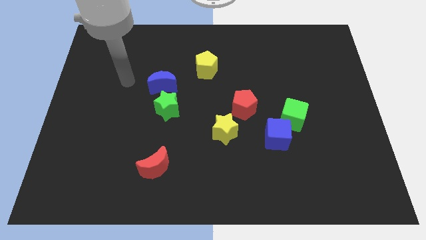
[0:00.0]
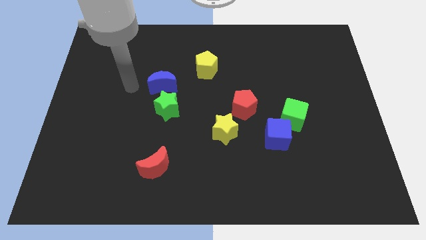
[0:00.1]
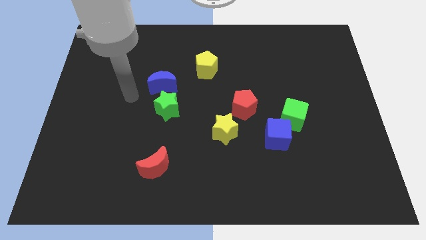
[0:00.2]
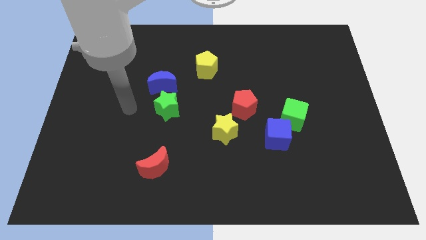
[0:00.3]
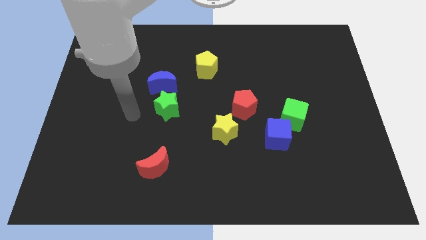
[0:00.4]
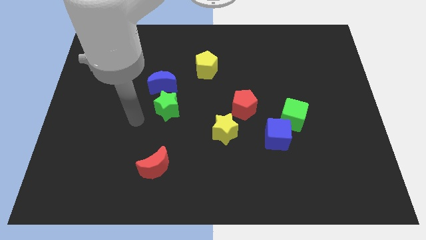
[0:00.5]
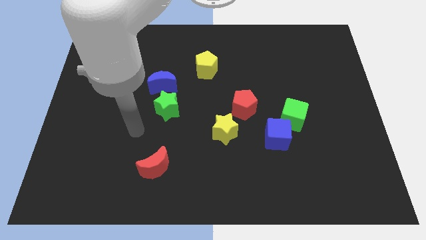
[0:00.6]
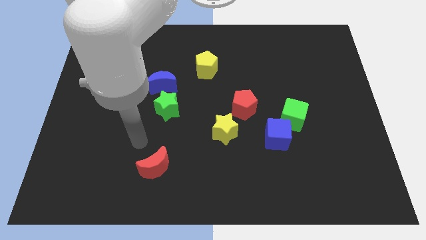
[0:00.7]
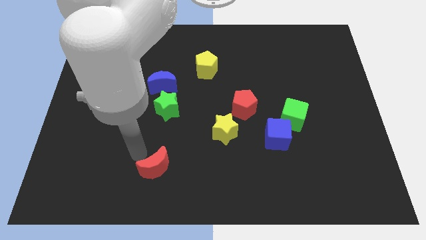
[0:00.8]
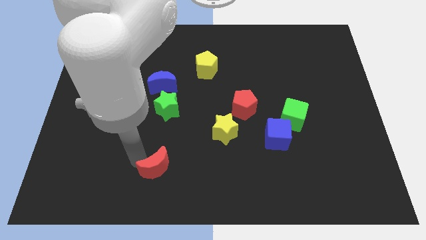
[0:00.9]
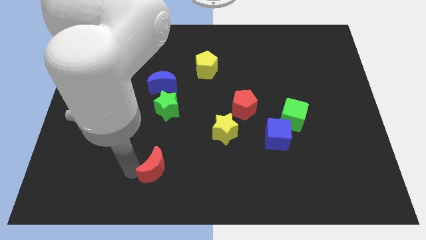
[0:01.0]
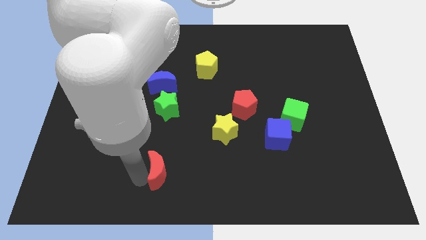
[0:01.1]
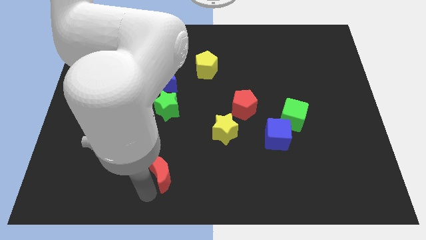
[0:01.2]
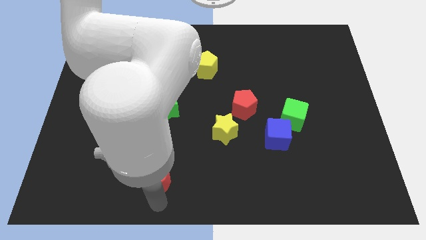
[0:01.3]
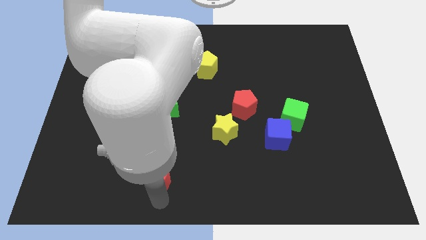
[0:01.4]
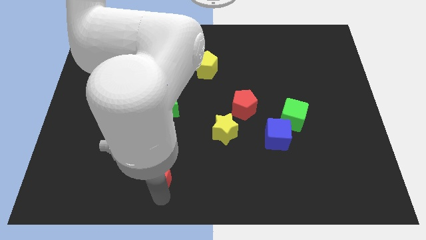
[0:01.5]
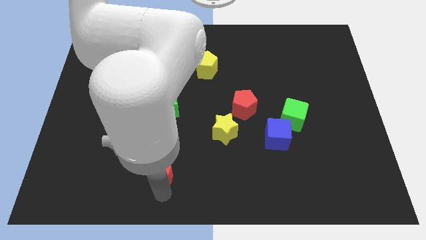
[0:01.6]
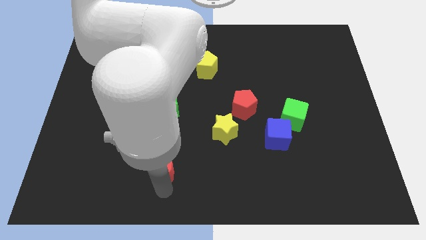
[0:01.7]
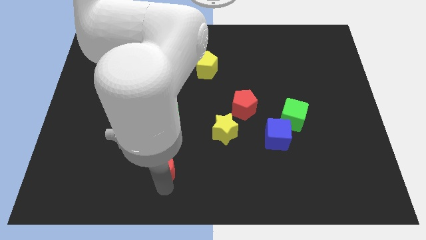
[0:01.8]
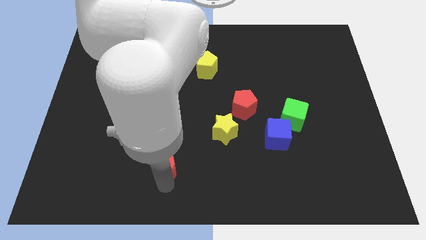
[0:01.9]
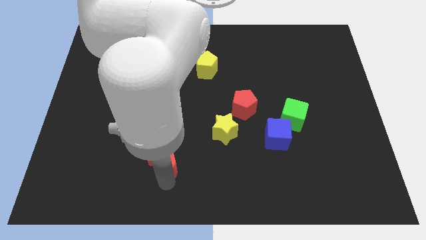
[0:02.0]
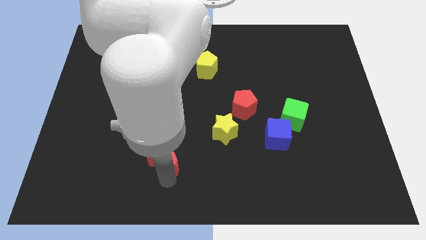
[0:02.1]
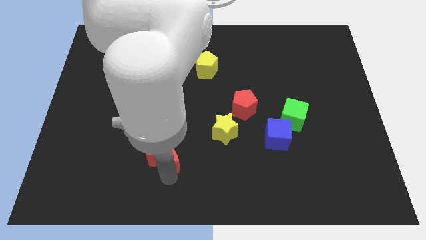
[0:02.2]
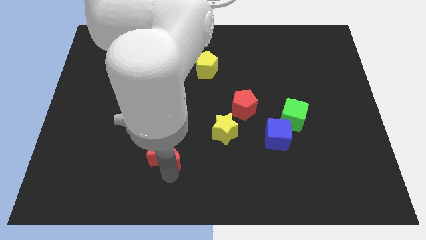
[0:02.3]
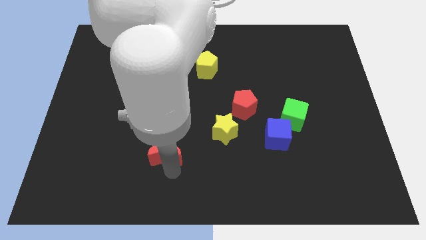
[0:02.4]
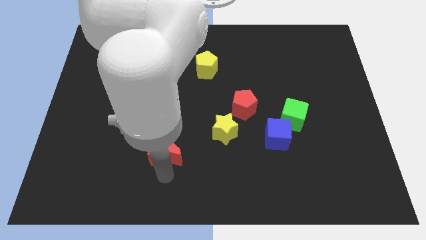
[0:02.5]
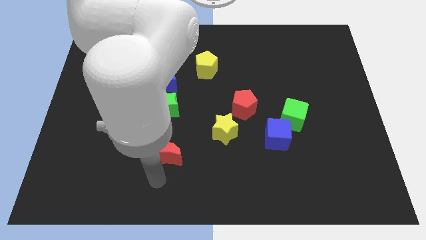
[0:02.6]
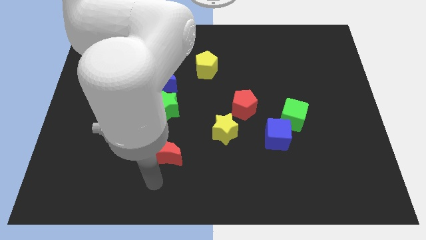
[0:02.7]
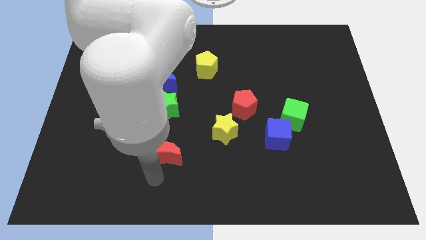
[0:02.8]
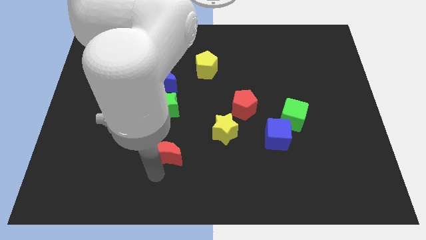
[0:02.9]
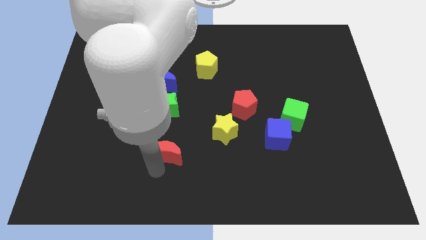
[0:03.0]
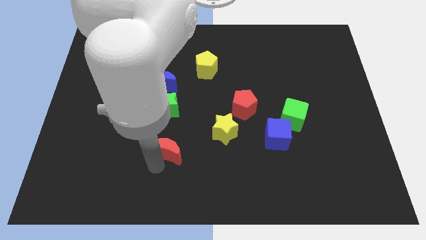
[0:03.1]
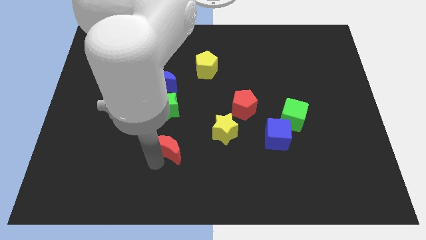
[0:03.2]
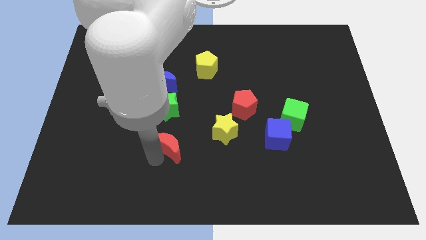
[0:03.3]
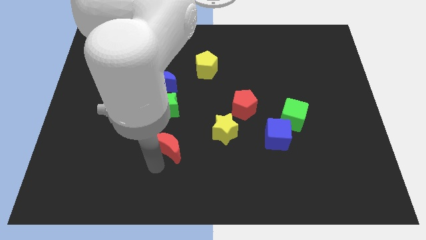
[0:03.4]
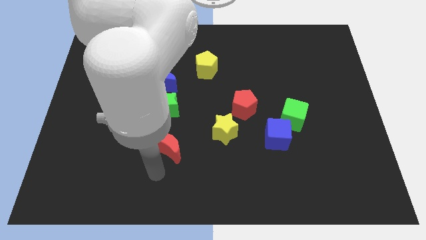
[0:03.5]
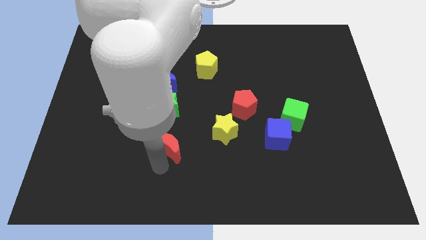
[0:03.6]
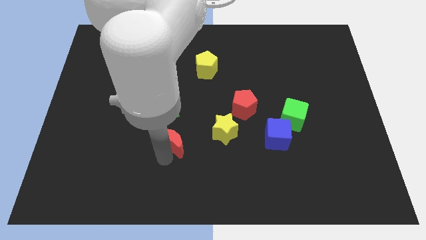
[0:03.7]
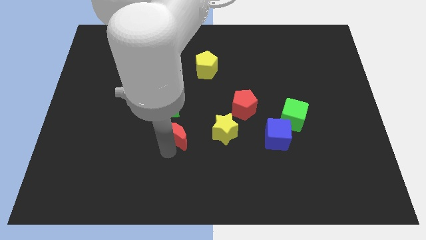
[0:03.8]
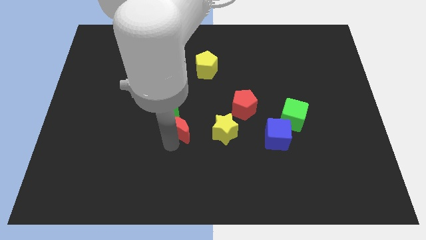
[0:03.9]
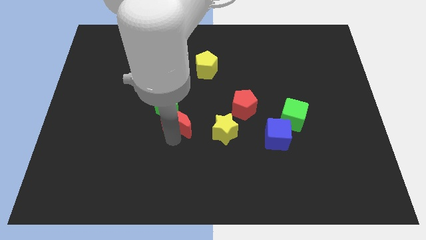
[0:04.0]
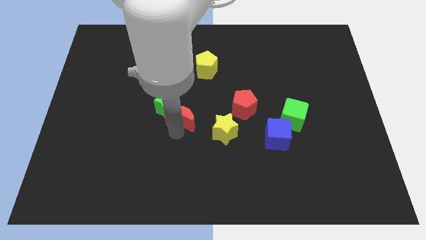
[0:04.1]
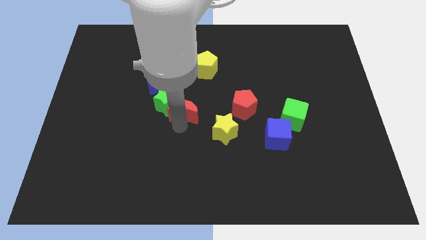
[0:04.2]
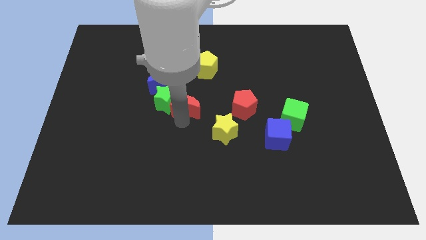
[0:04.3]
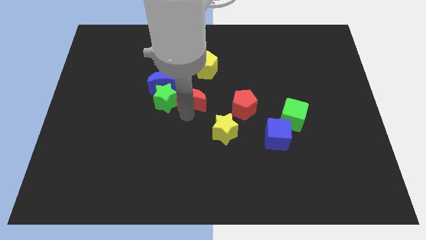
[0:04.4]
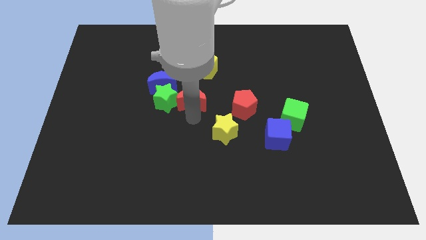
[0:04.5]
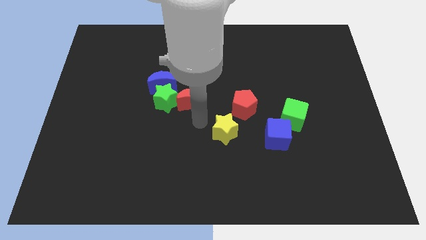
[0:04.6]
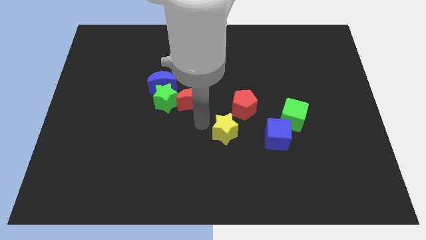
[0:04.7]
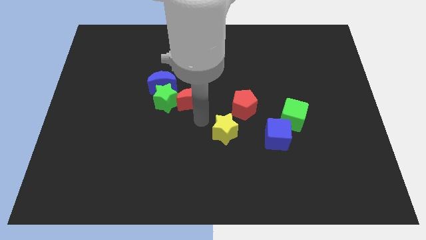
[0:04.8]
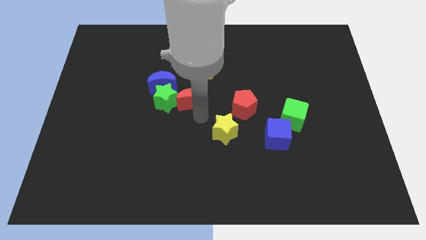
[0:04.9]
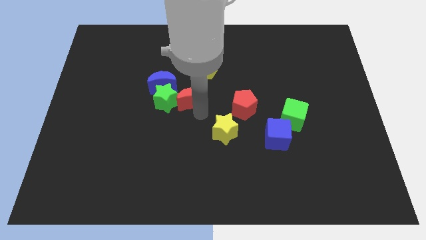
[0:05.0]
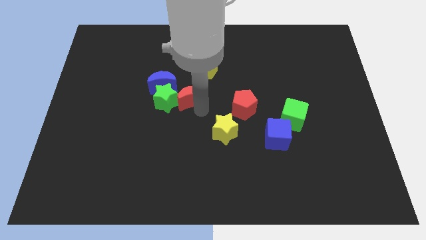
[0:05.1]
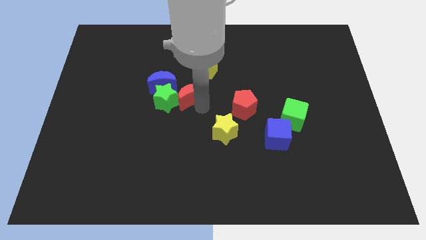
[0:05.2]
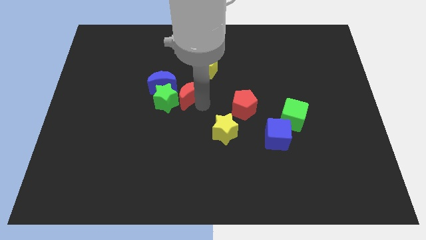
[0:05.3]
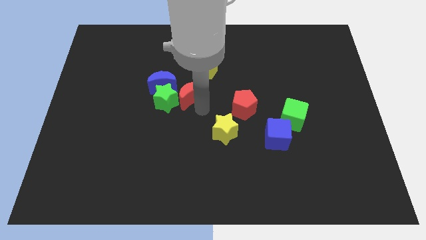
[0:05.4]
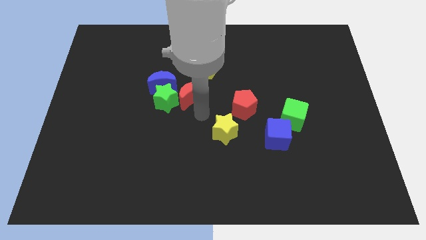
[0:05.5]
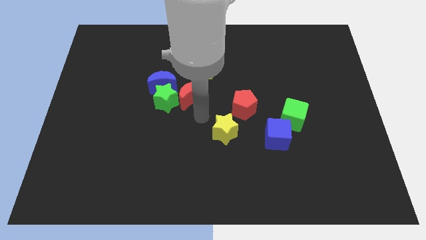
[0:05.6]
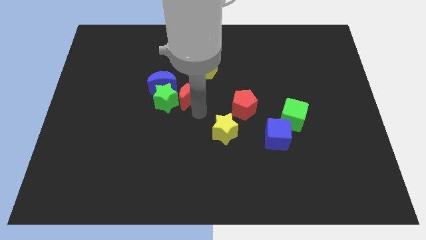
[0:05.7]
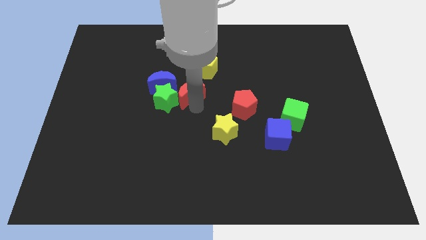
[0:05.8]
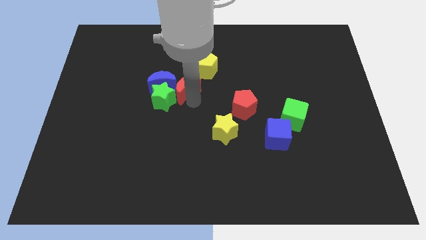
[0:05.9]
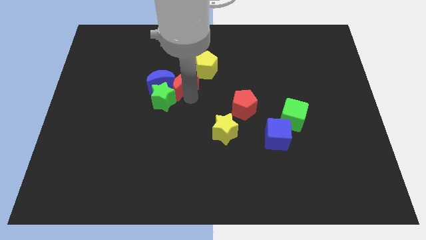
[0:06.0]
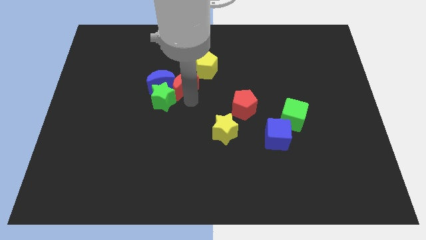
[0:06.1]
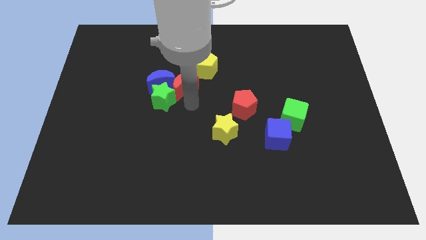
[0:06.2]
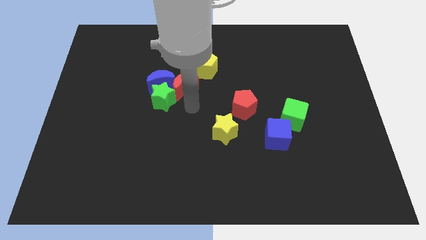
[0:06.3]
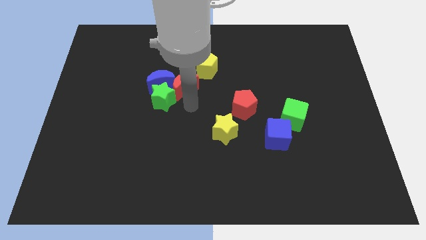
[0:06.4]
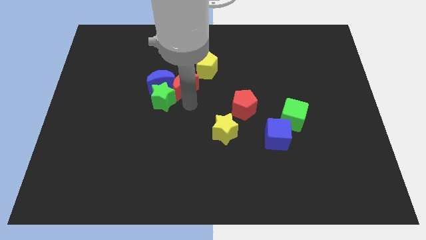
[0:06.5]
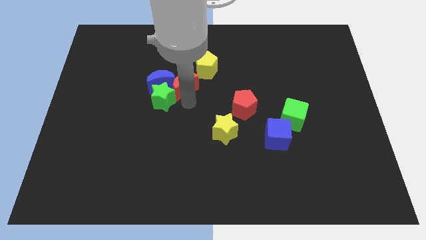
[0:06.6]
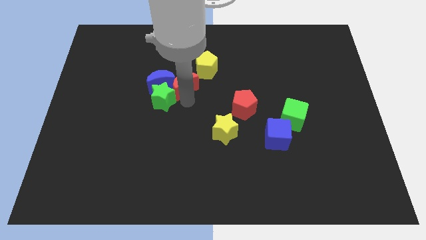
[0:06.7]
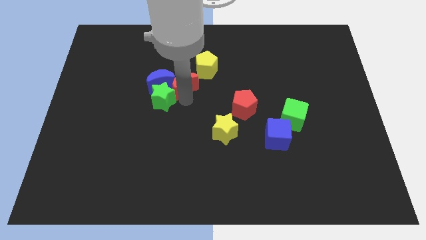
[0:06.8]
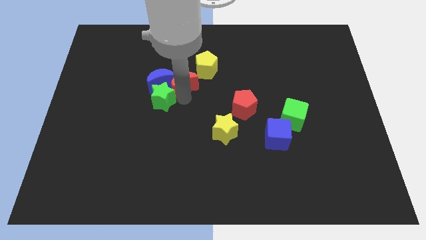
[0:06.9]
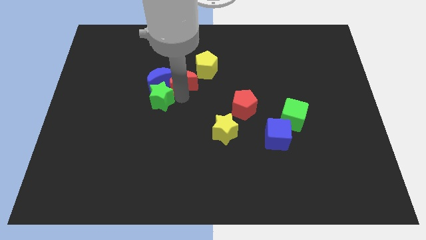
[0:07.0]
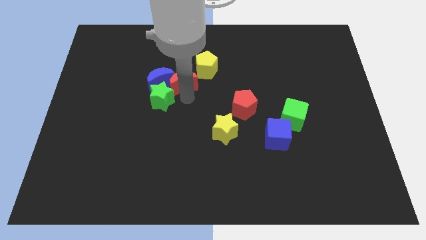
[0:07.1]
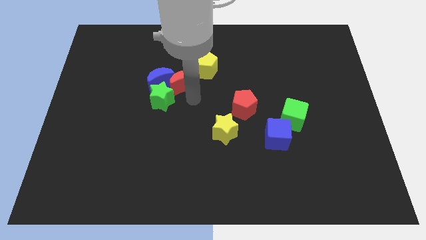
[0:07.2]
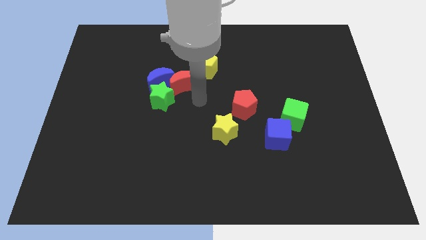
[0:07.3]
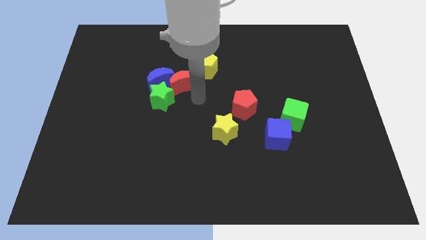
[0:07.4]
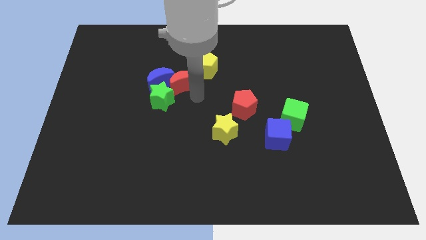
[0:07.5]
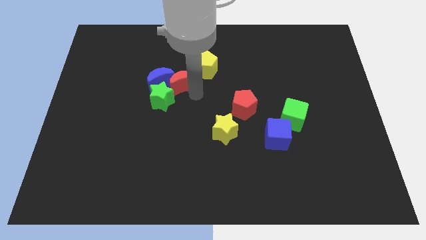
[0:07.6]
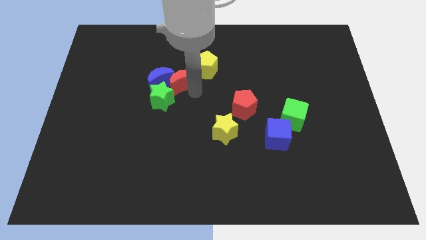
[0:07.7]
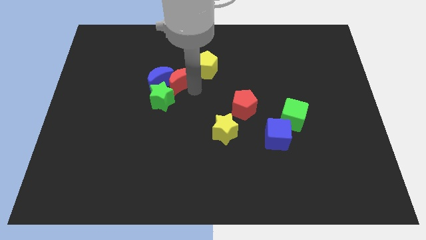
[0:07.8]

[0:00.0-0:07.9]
push the red moon left of the yellow pentagon
